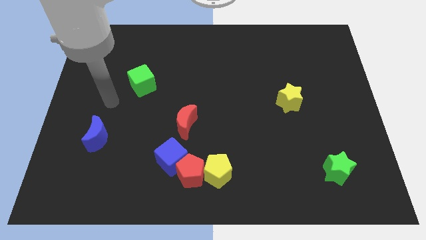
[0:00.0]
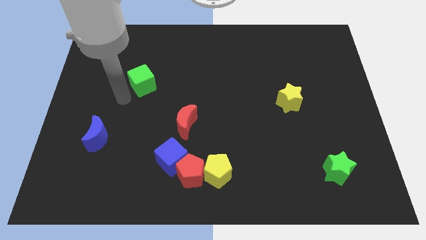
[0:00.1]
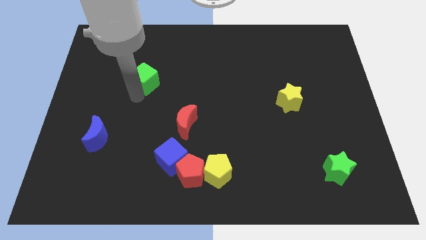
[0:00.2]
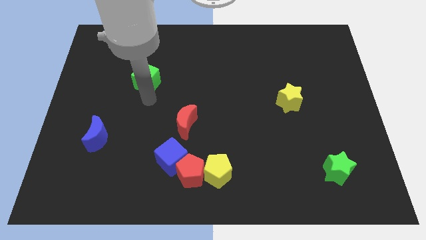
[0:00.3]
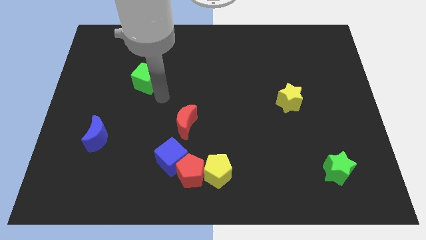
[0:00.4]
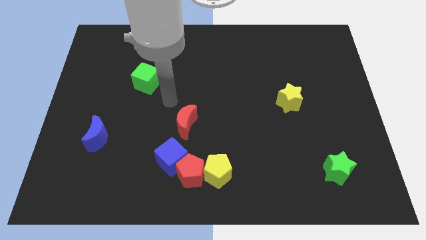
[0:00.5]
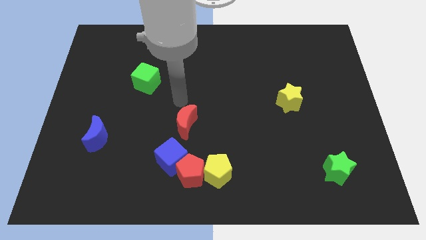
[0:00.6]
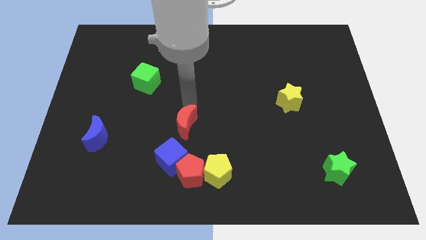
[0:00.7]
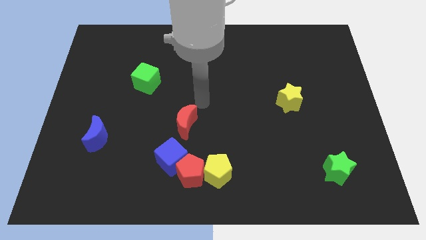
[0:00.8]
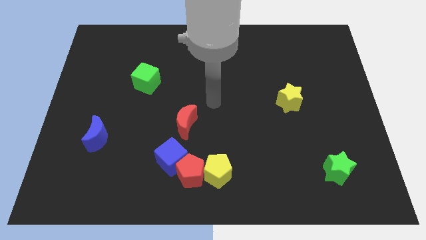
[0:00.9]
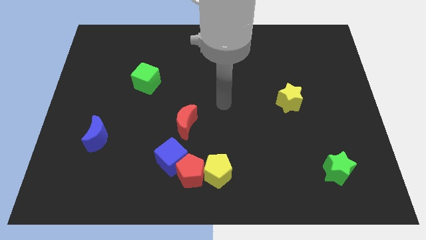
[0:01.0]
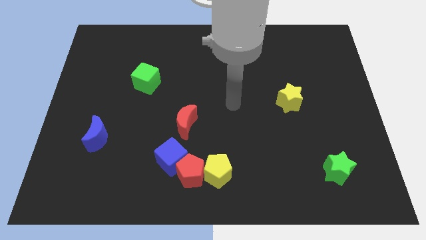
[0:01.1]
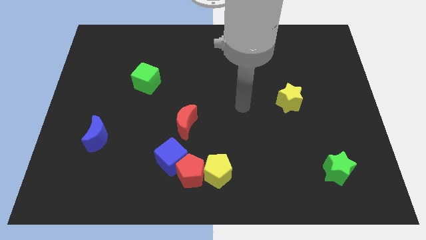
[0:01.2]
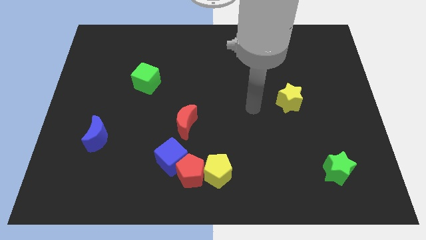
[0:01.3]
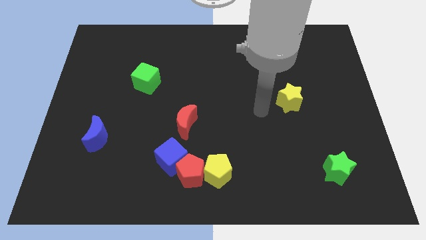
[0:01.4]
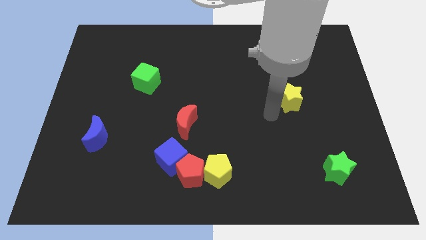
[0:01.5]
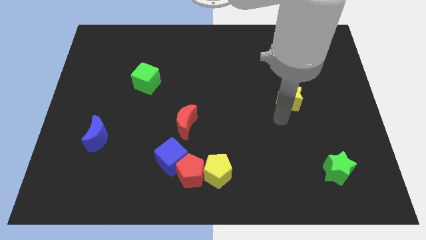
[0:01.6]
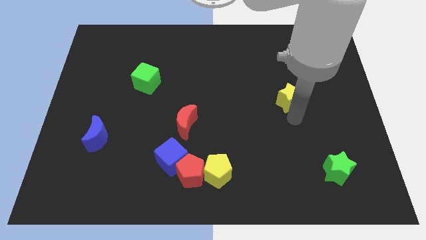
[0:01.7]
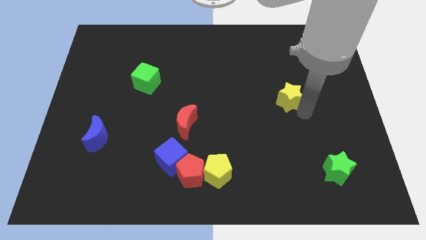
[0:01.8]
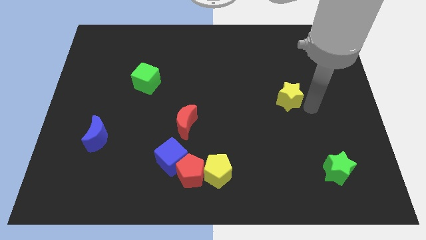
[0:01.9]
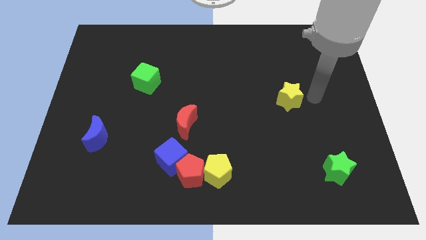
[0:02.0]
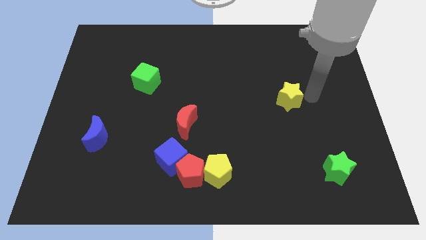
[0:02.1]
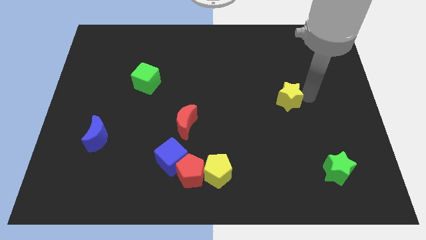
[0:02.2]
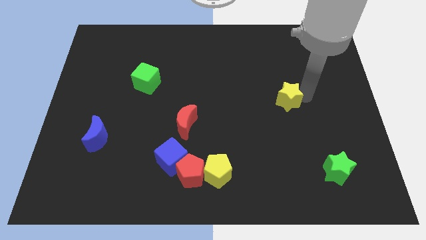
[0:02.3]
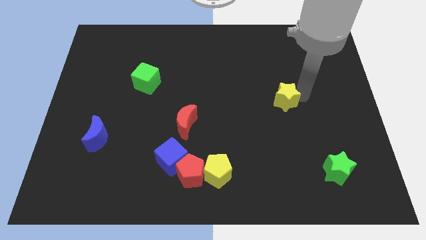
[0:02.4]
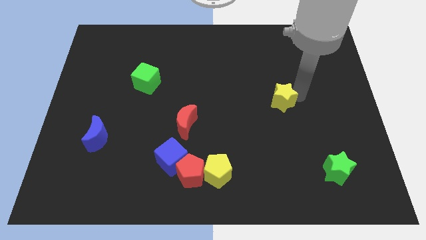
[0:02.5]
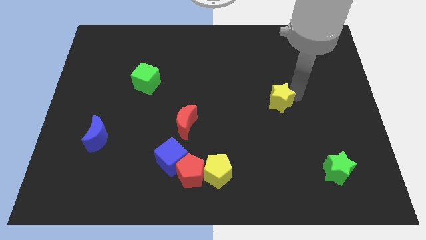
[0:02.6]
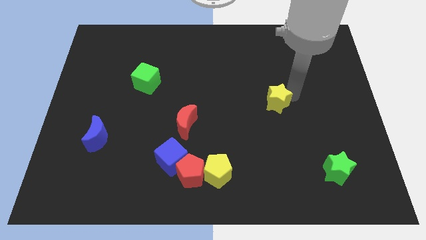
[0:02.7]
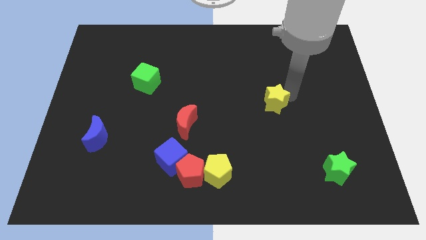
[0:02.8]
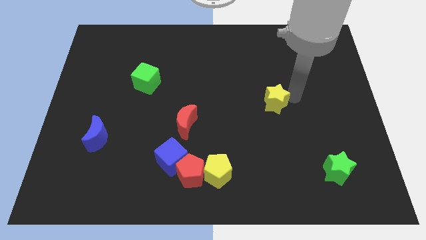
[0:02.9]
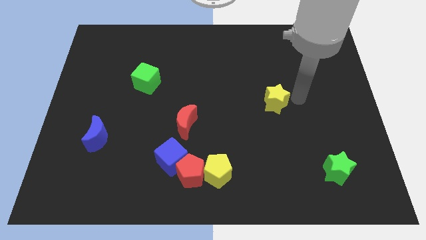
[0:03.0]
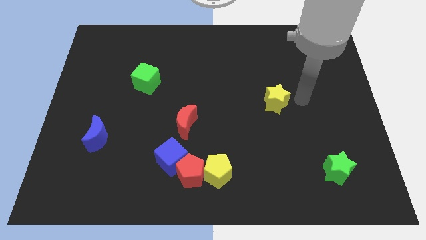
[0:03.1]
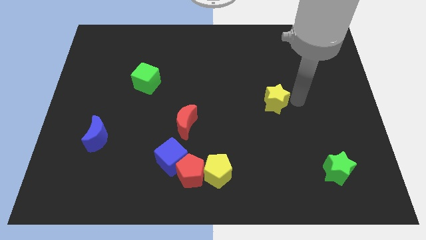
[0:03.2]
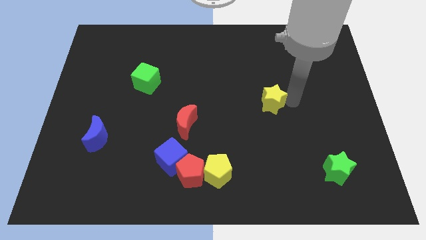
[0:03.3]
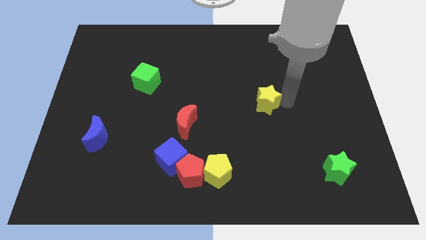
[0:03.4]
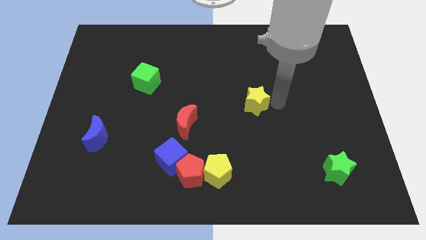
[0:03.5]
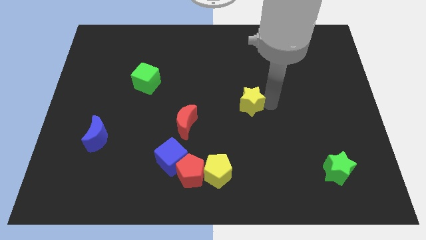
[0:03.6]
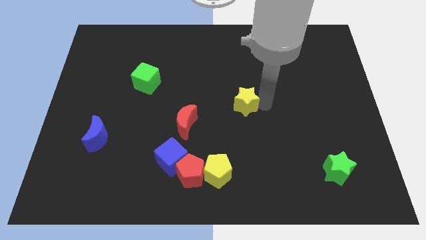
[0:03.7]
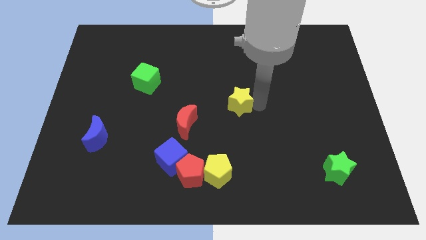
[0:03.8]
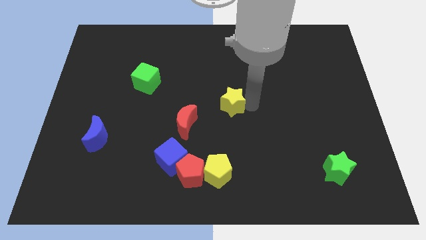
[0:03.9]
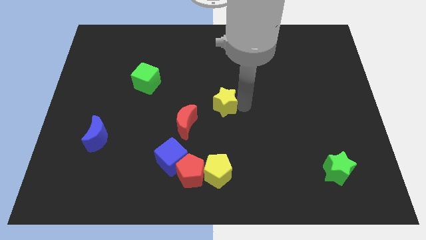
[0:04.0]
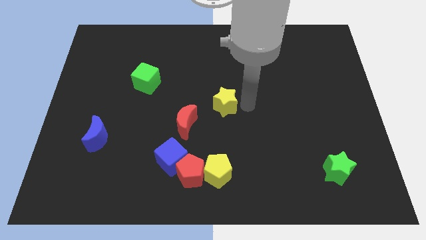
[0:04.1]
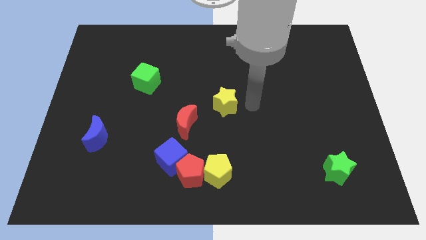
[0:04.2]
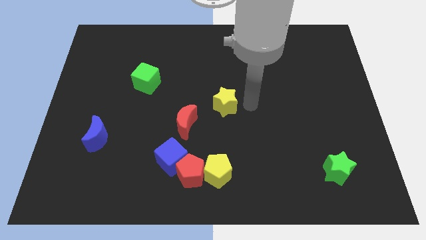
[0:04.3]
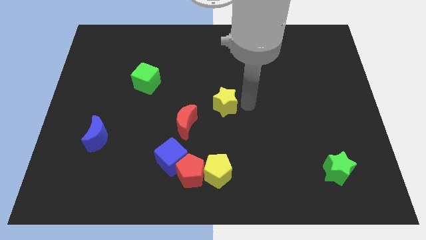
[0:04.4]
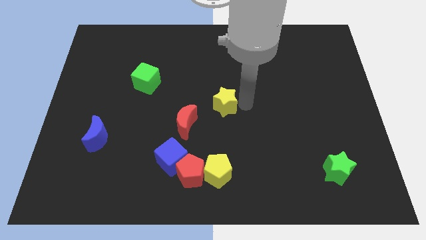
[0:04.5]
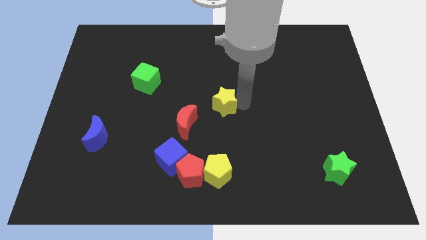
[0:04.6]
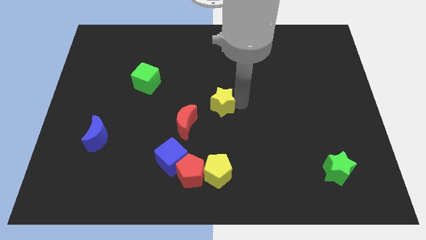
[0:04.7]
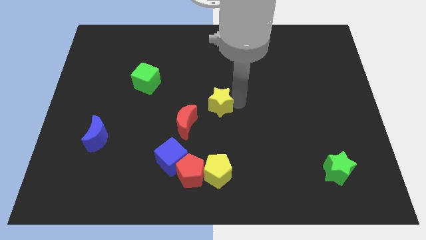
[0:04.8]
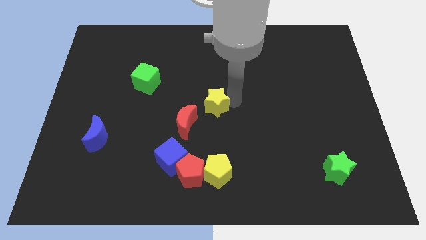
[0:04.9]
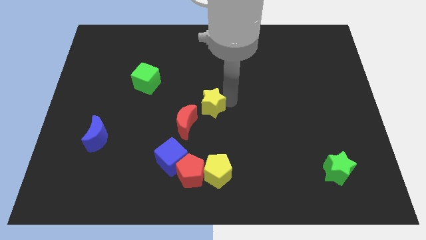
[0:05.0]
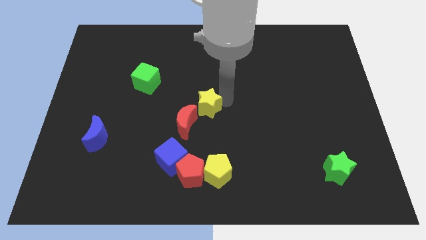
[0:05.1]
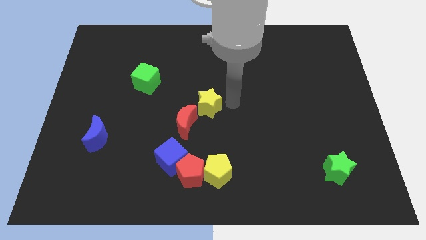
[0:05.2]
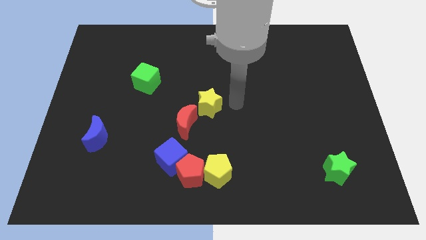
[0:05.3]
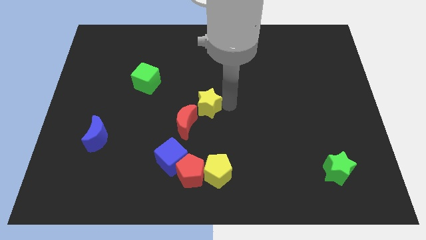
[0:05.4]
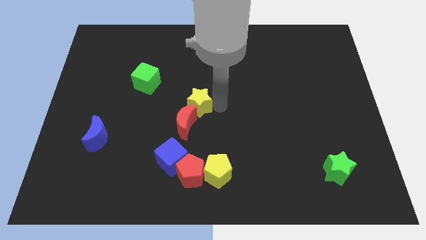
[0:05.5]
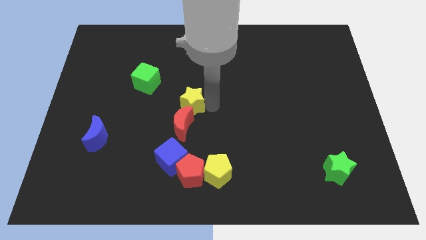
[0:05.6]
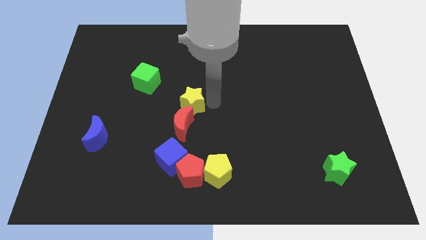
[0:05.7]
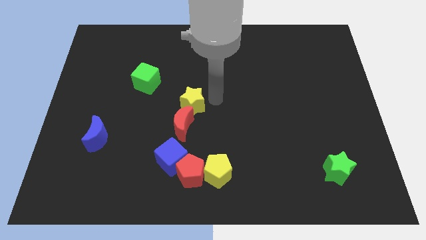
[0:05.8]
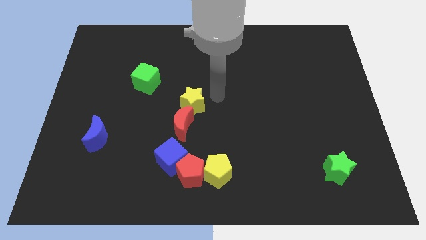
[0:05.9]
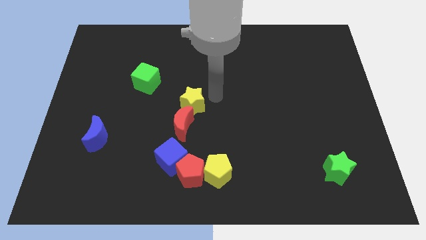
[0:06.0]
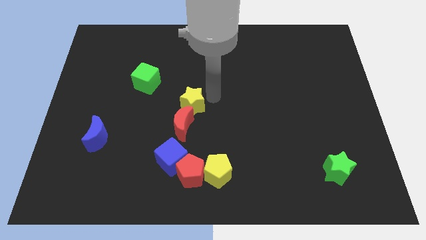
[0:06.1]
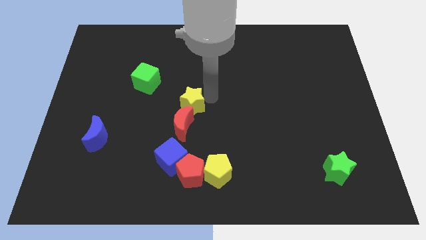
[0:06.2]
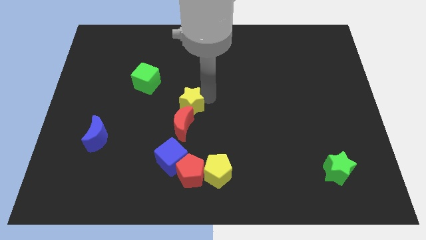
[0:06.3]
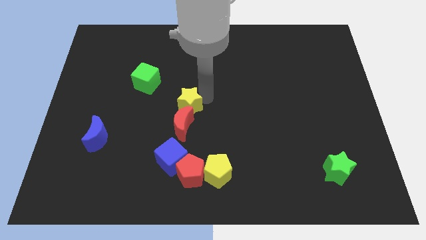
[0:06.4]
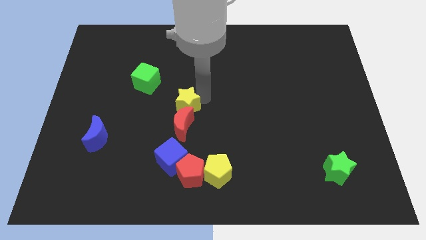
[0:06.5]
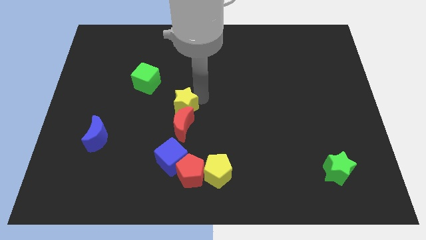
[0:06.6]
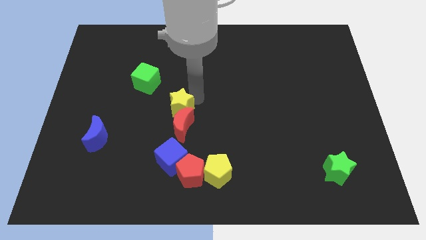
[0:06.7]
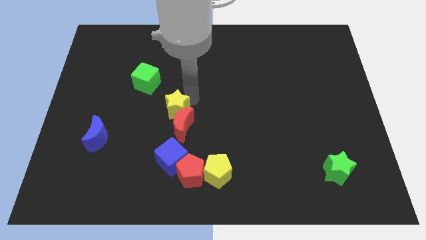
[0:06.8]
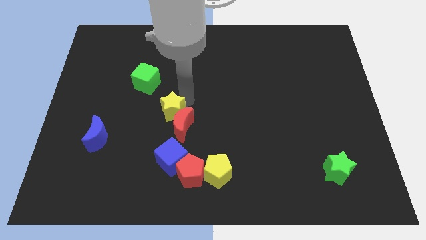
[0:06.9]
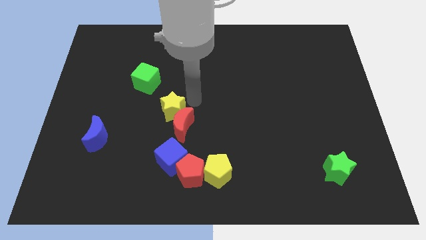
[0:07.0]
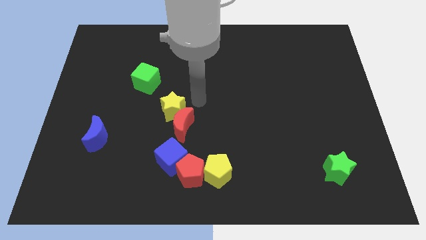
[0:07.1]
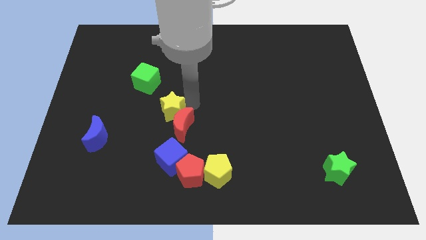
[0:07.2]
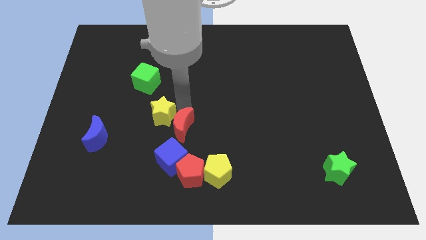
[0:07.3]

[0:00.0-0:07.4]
put the yellow star left of the red moon
